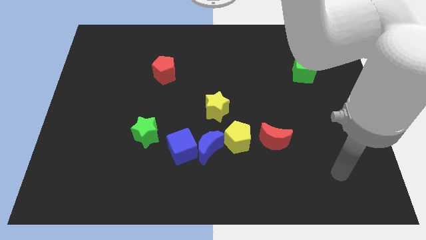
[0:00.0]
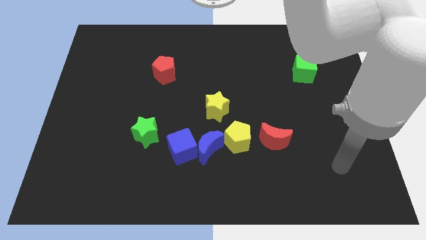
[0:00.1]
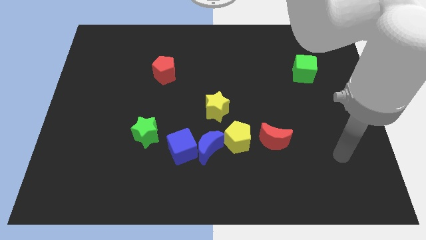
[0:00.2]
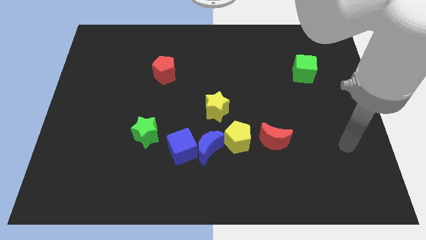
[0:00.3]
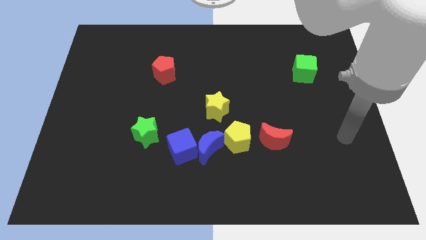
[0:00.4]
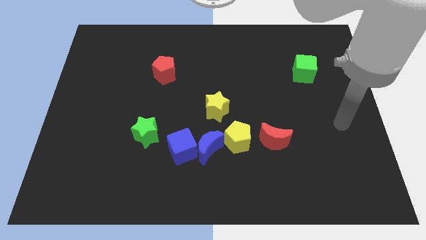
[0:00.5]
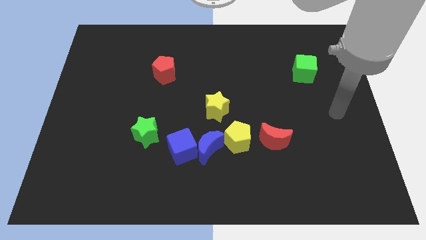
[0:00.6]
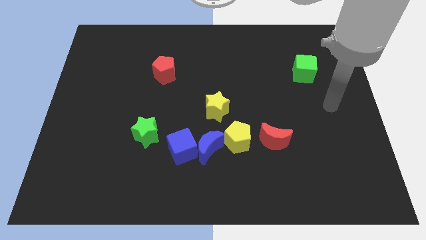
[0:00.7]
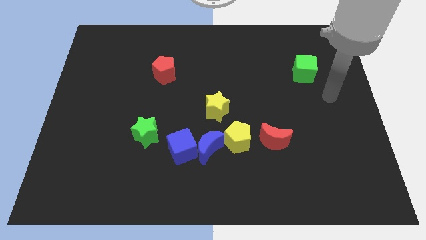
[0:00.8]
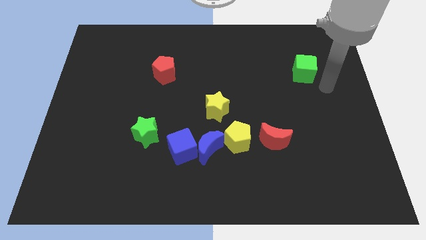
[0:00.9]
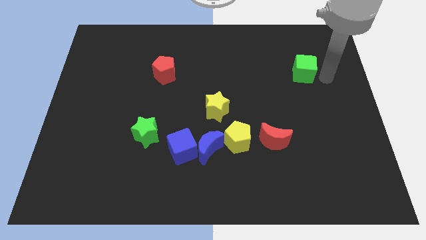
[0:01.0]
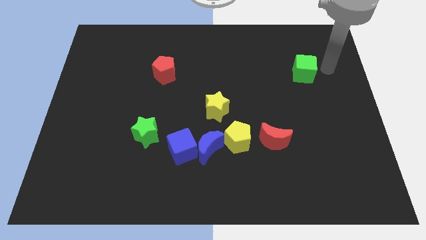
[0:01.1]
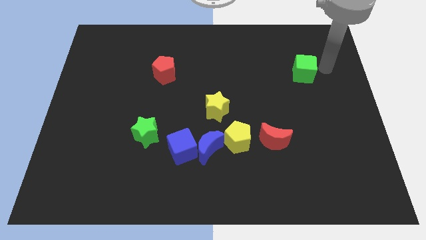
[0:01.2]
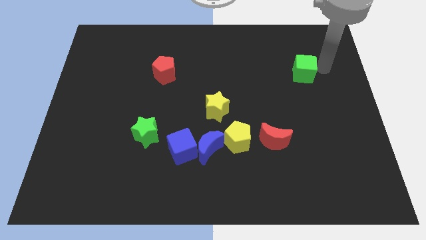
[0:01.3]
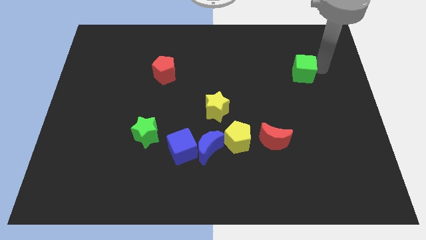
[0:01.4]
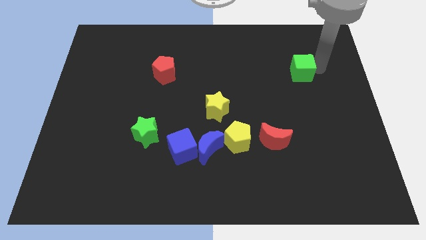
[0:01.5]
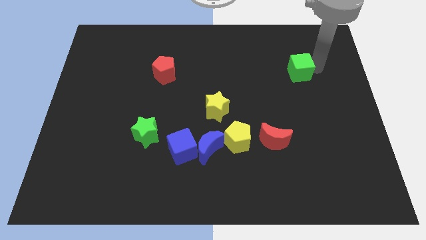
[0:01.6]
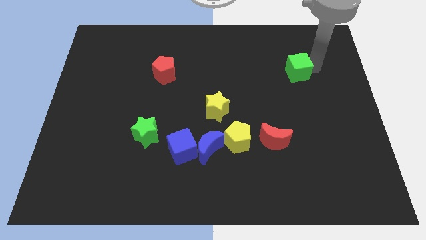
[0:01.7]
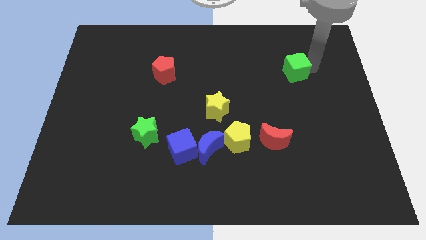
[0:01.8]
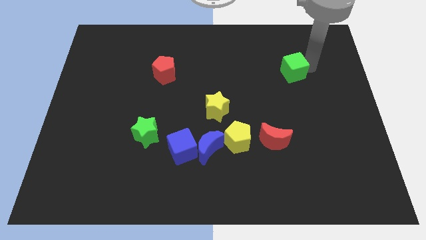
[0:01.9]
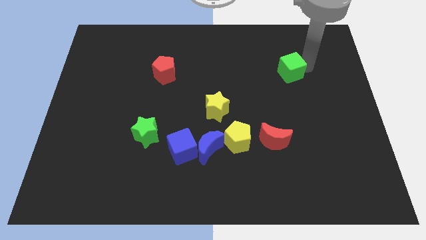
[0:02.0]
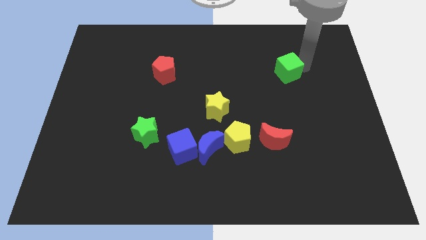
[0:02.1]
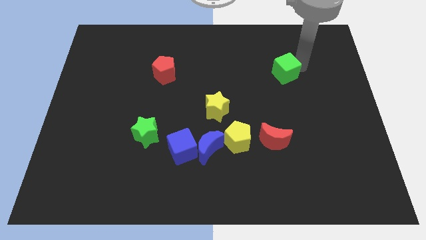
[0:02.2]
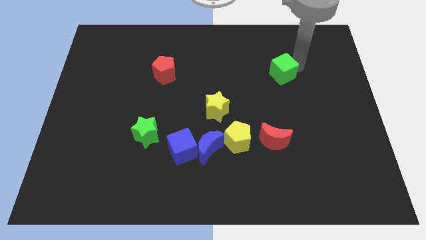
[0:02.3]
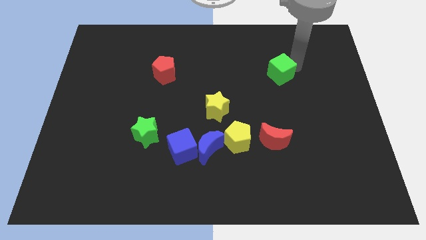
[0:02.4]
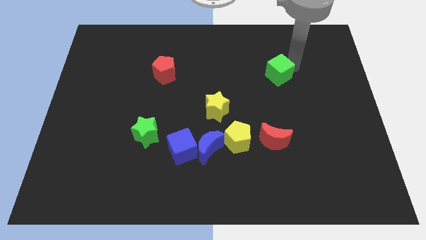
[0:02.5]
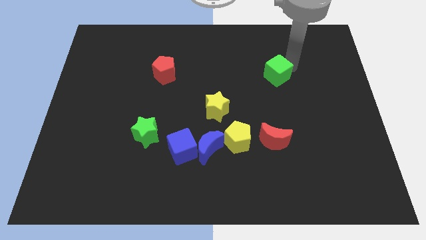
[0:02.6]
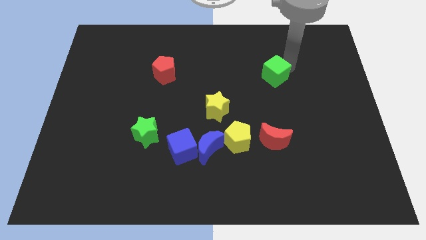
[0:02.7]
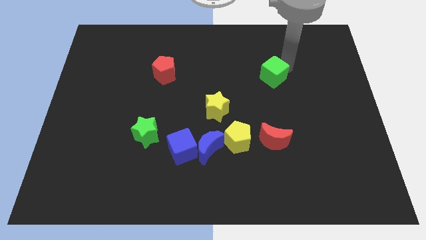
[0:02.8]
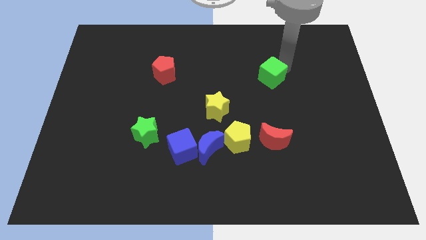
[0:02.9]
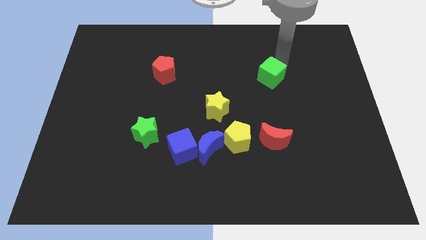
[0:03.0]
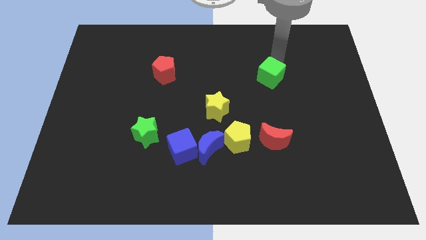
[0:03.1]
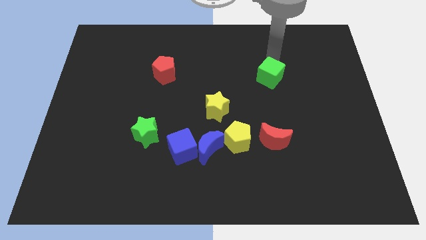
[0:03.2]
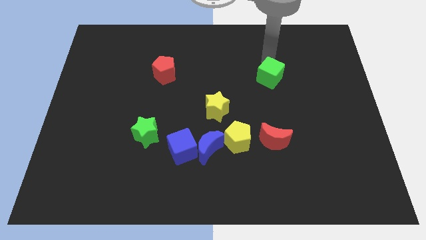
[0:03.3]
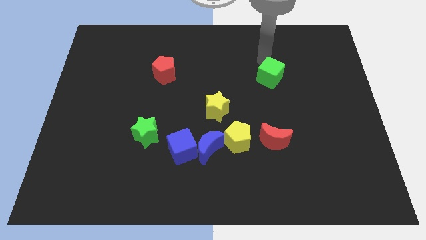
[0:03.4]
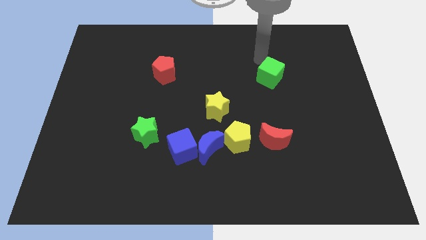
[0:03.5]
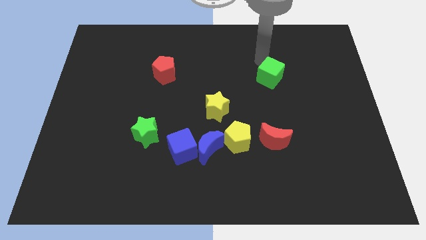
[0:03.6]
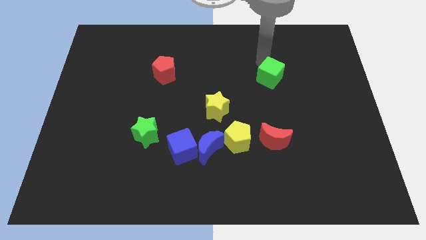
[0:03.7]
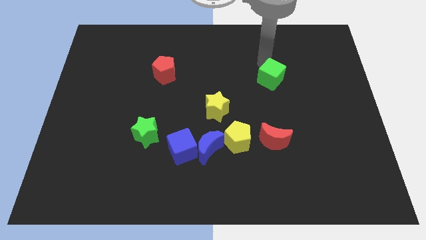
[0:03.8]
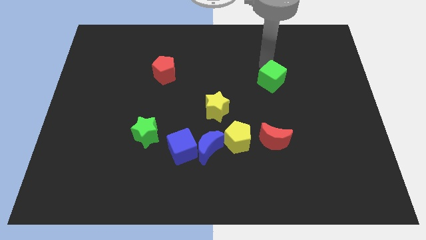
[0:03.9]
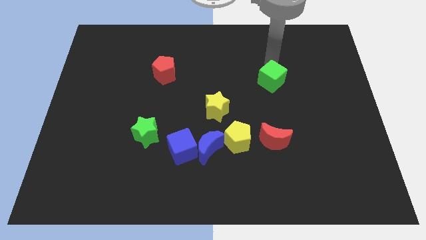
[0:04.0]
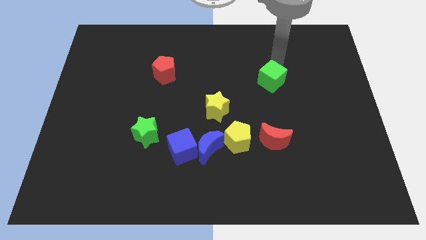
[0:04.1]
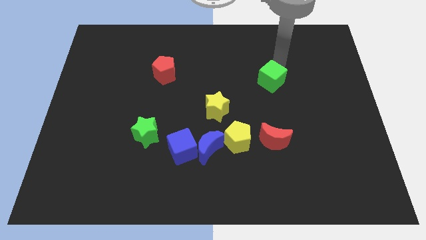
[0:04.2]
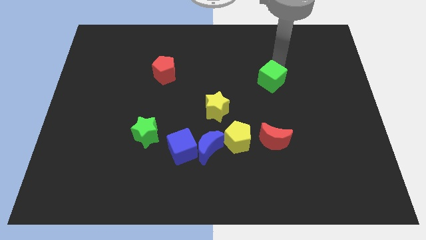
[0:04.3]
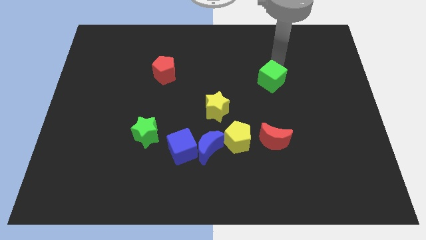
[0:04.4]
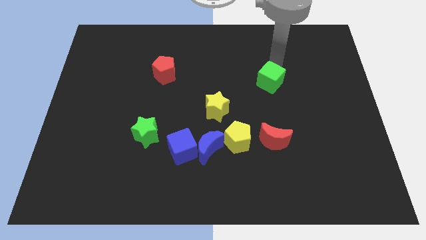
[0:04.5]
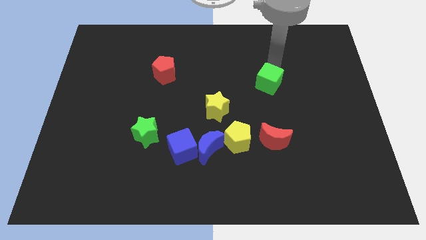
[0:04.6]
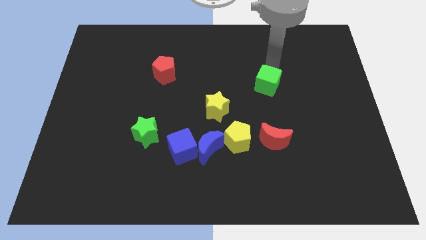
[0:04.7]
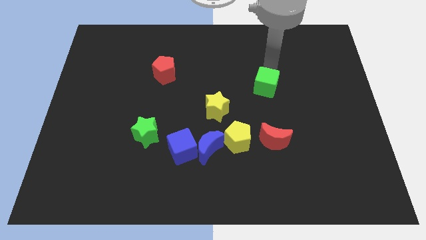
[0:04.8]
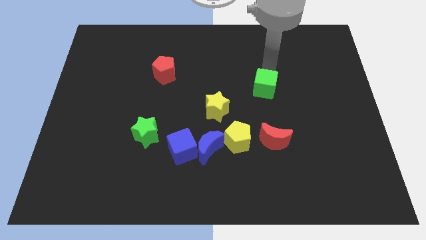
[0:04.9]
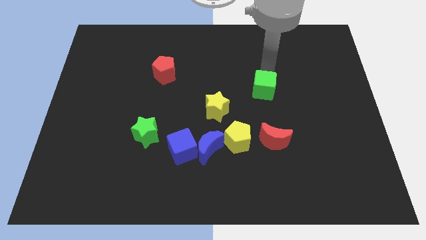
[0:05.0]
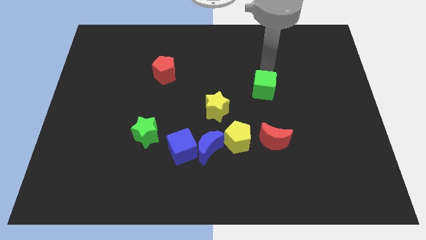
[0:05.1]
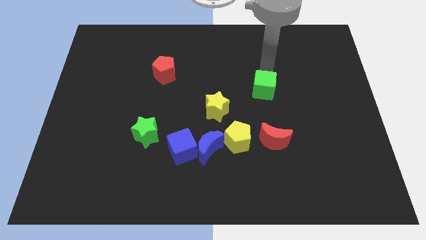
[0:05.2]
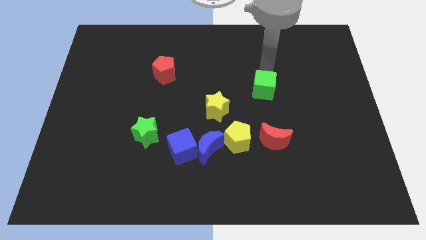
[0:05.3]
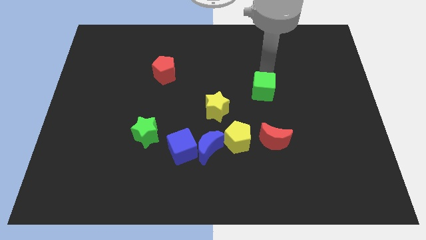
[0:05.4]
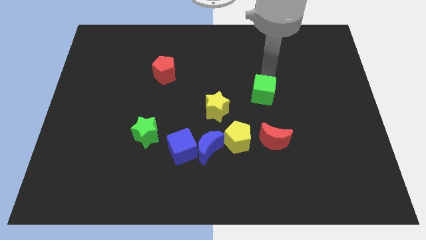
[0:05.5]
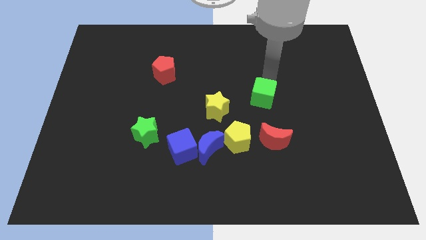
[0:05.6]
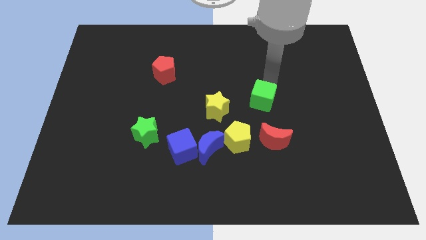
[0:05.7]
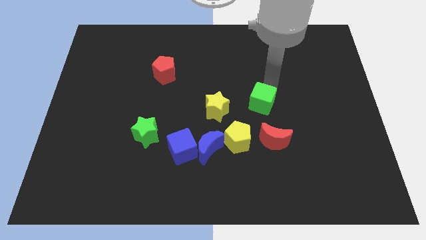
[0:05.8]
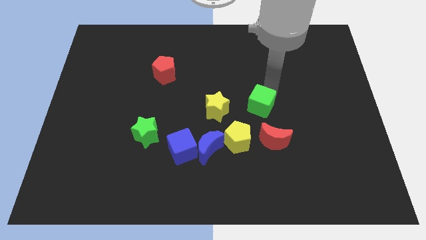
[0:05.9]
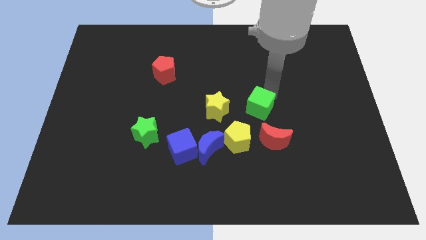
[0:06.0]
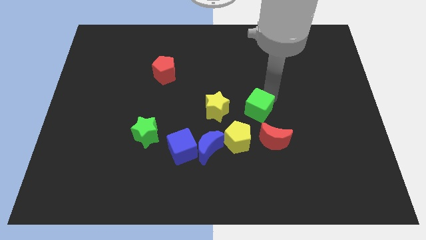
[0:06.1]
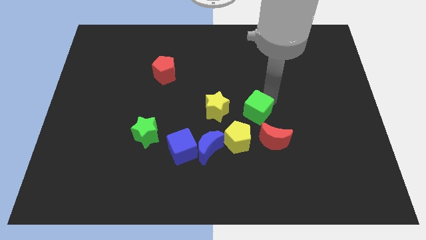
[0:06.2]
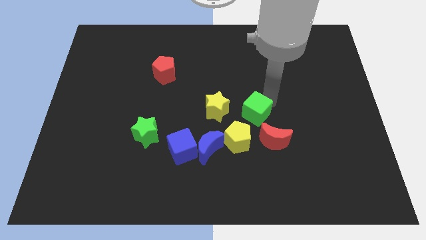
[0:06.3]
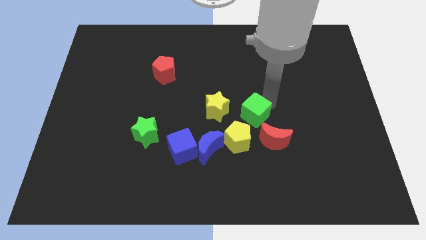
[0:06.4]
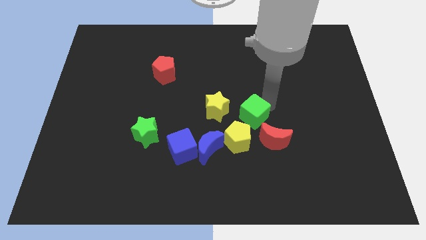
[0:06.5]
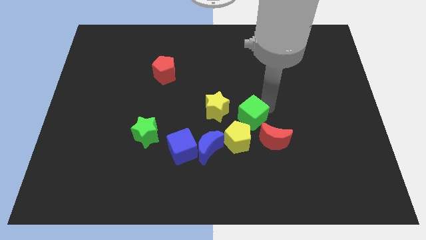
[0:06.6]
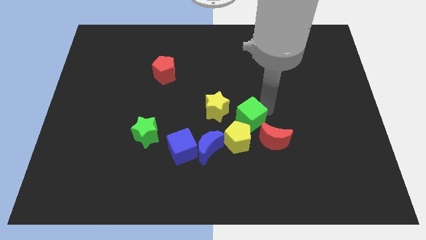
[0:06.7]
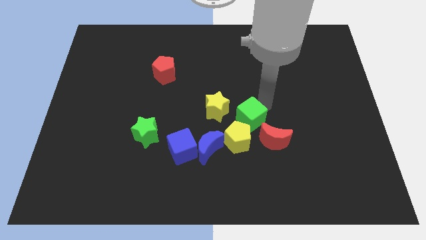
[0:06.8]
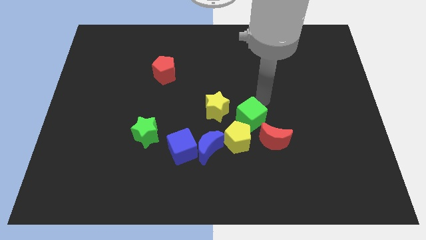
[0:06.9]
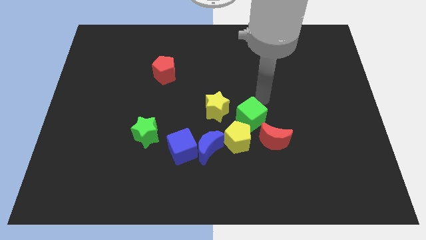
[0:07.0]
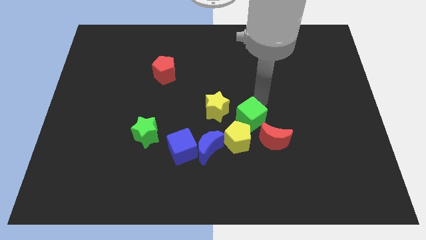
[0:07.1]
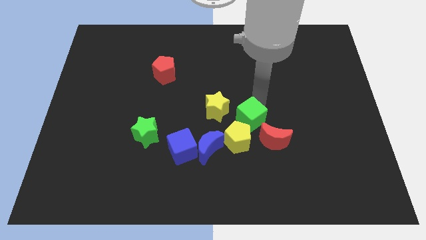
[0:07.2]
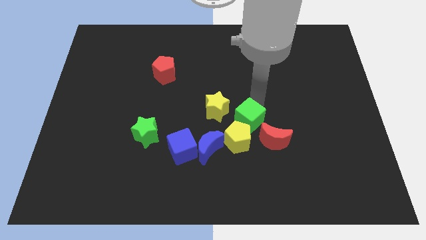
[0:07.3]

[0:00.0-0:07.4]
push the green cube next to the yellow pentagon

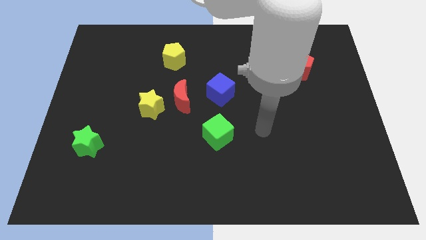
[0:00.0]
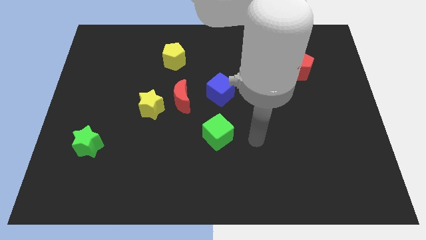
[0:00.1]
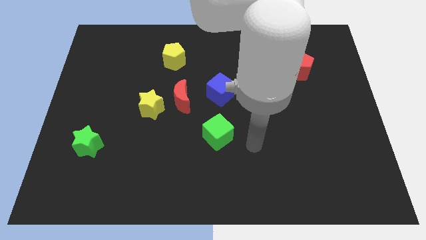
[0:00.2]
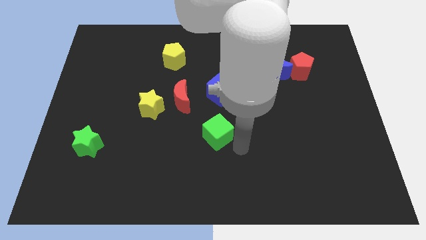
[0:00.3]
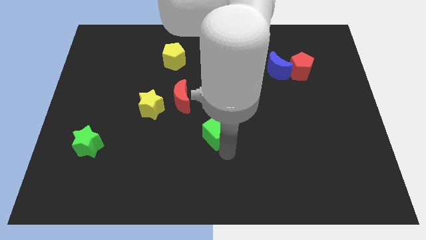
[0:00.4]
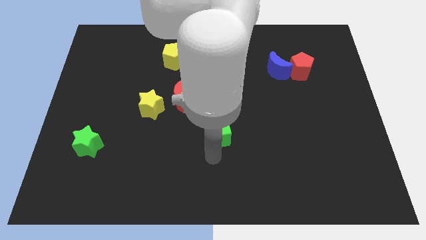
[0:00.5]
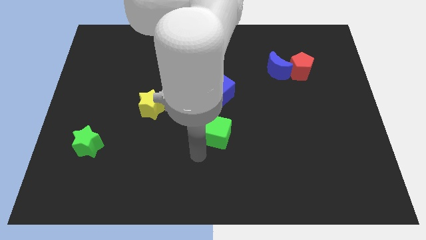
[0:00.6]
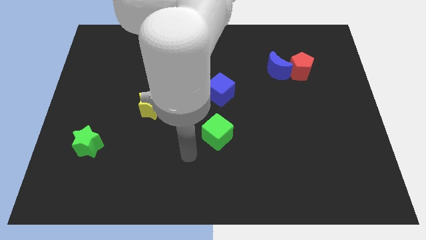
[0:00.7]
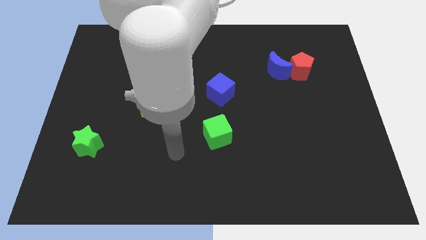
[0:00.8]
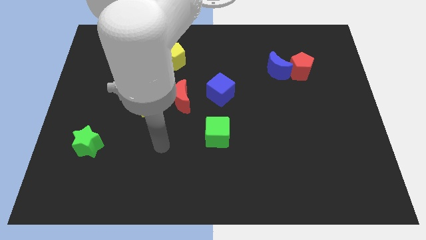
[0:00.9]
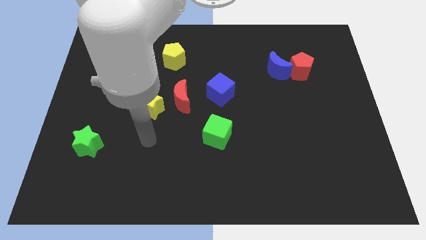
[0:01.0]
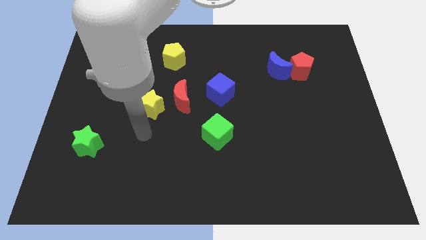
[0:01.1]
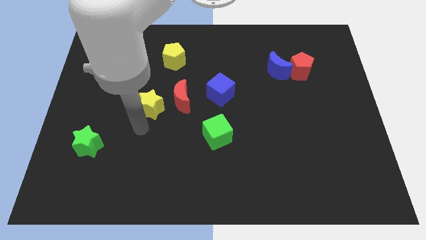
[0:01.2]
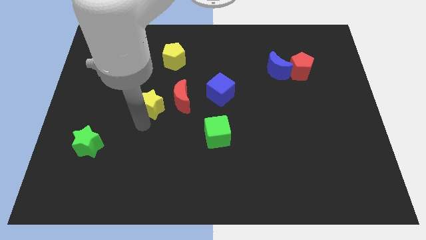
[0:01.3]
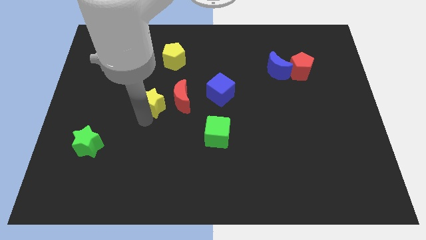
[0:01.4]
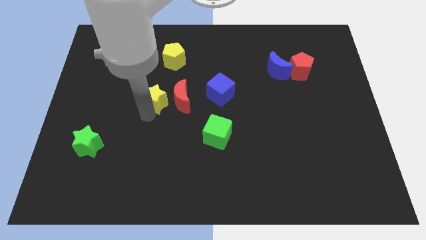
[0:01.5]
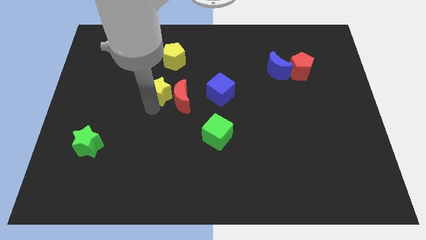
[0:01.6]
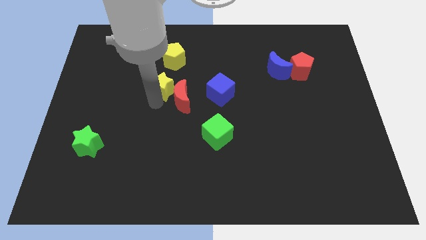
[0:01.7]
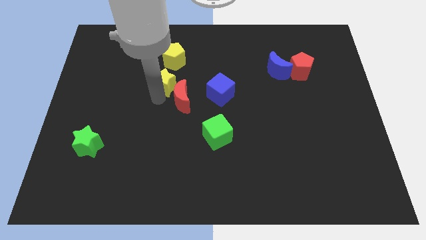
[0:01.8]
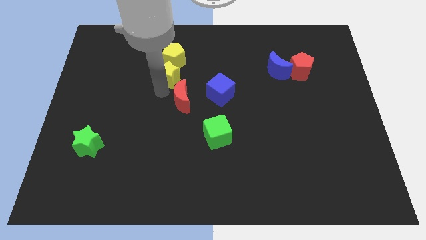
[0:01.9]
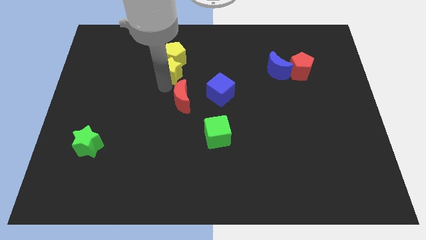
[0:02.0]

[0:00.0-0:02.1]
slide the yellow star to the yellow pentagon
